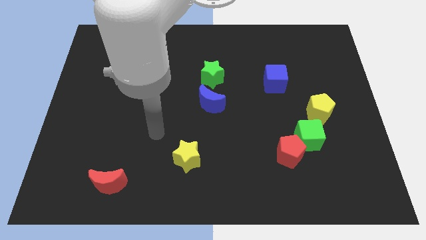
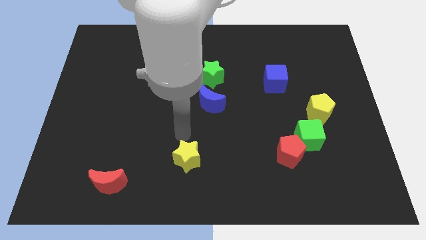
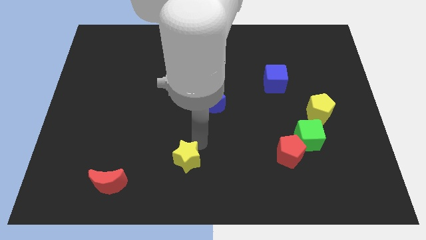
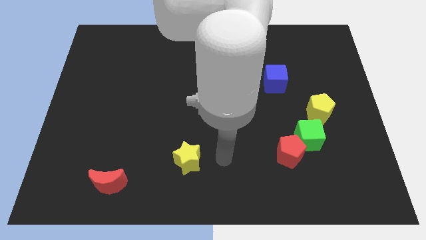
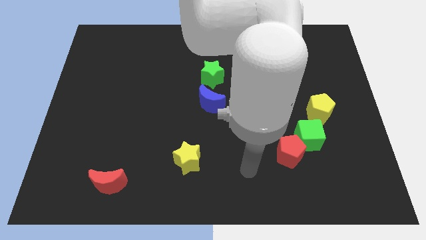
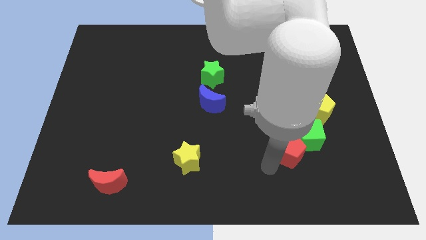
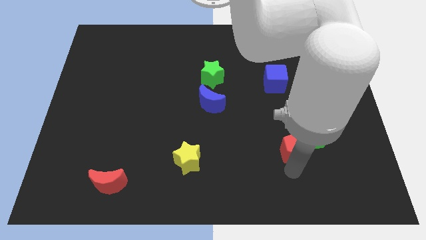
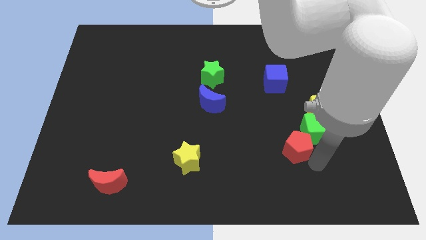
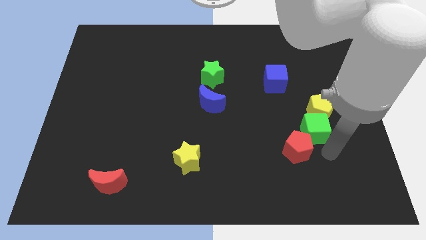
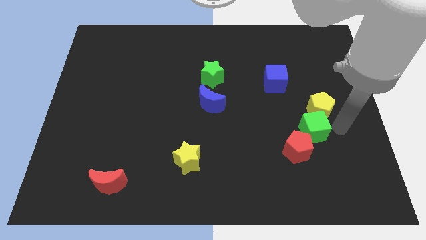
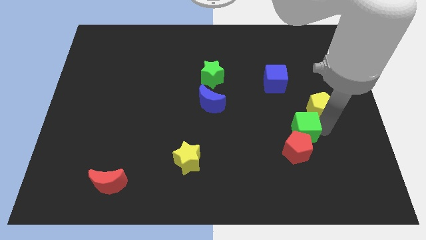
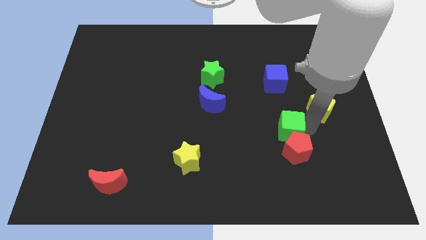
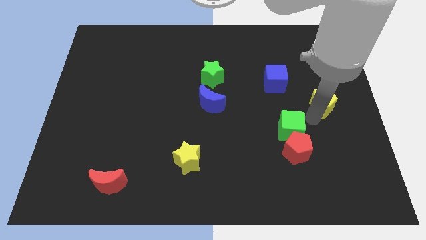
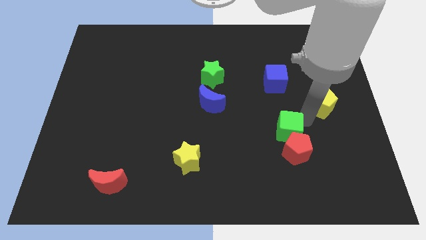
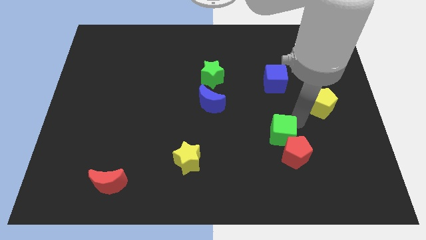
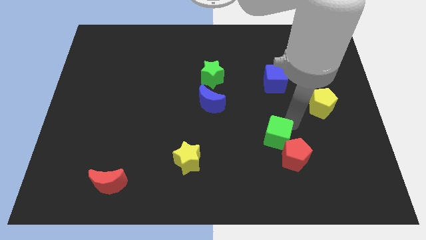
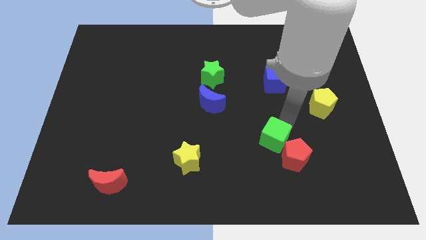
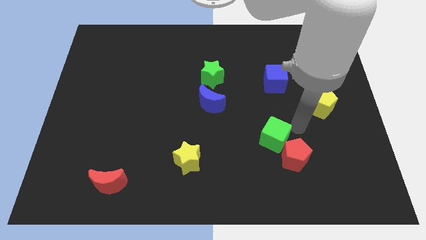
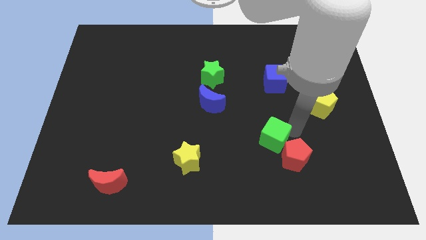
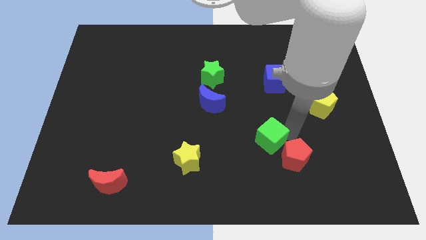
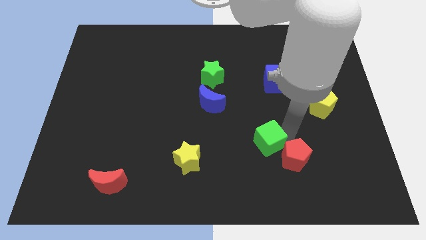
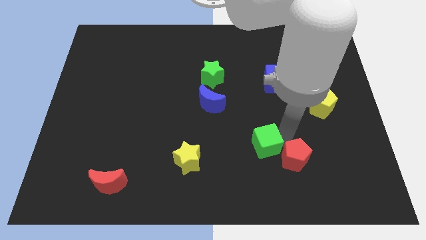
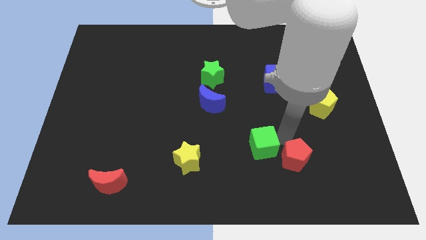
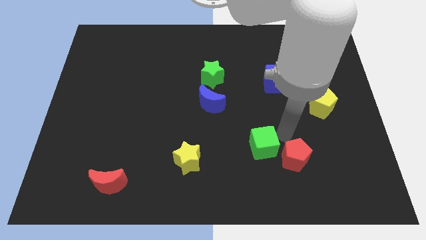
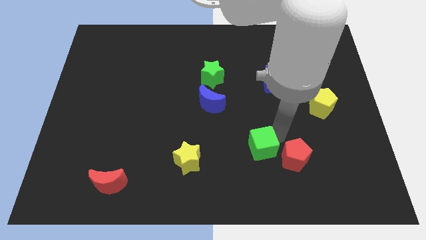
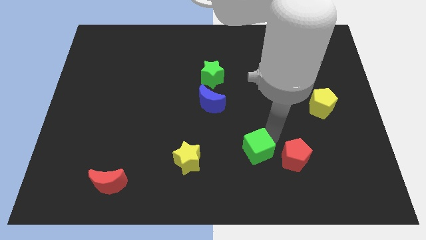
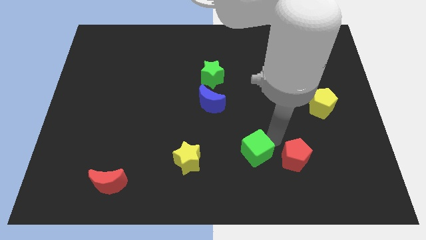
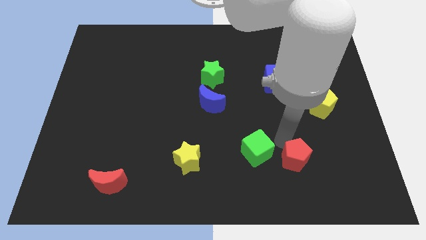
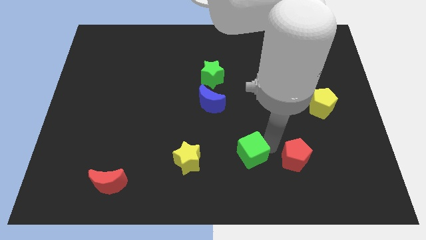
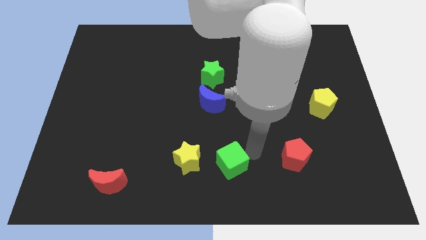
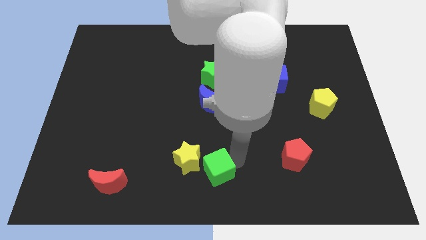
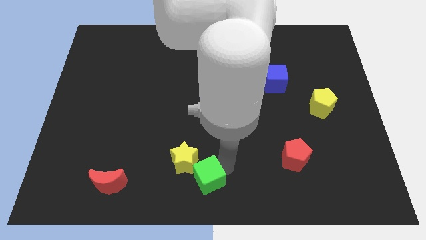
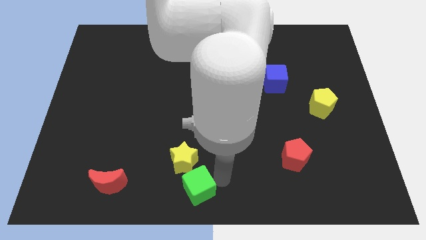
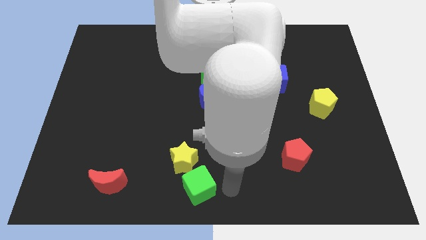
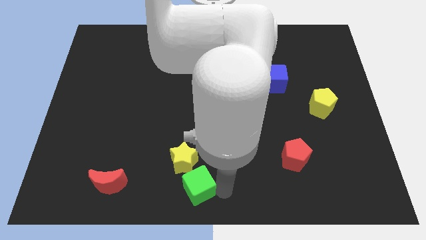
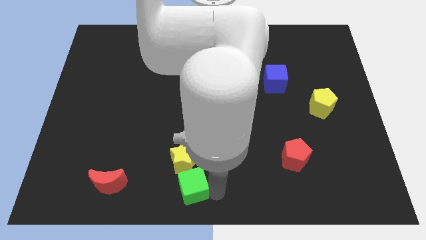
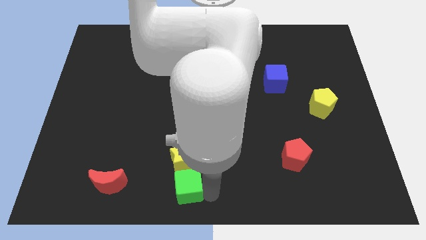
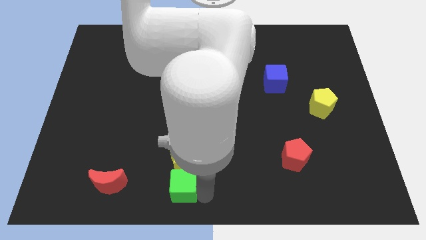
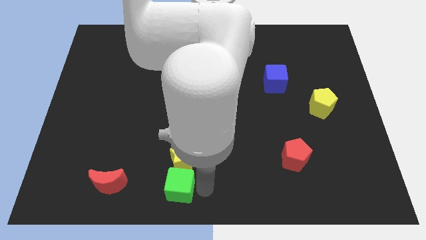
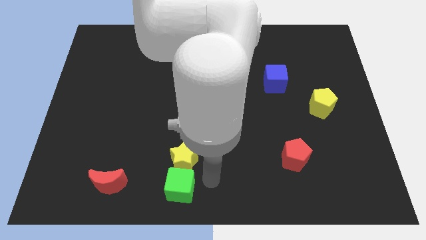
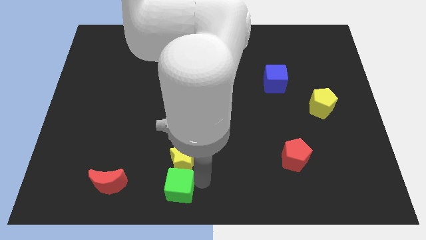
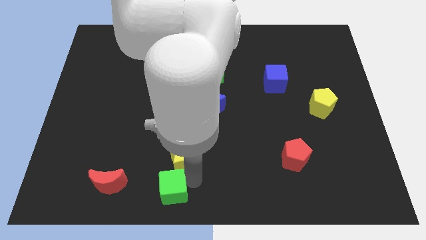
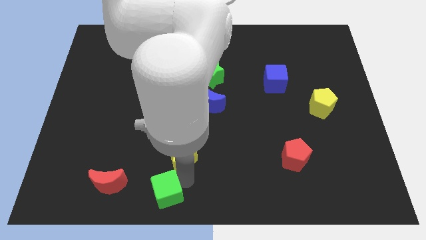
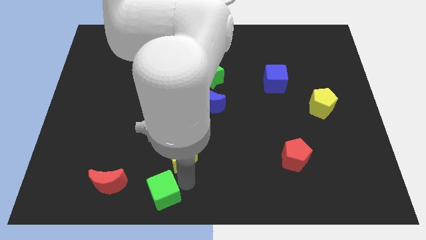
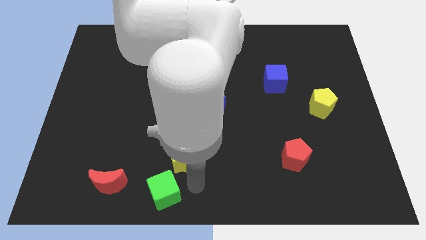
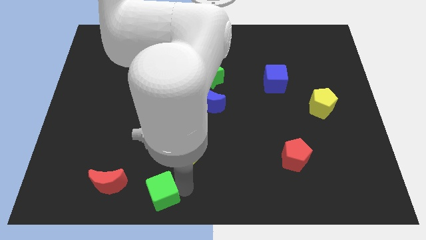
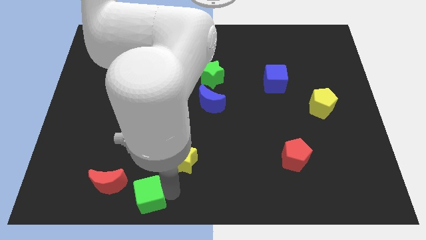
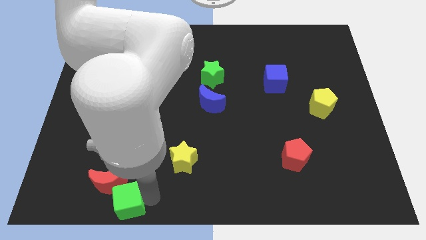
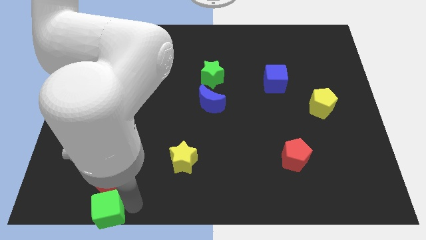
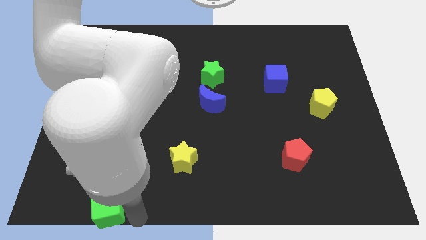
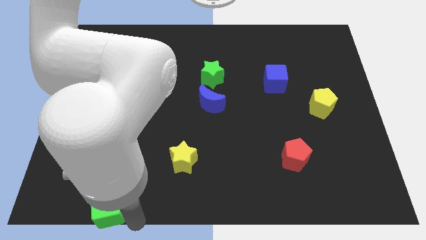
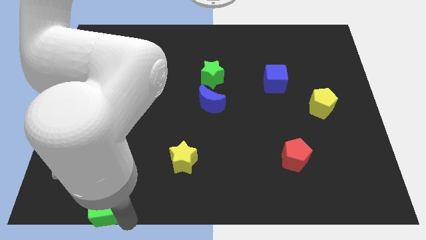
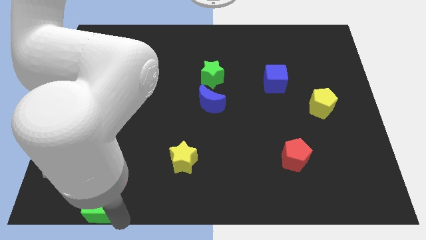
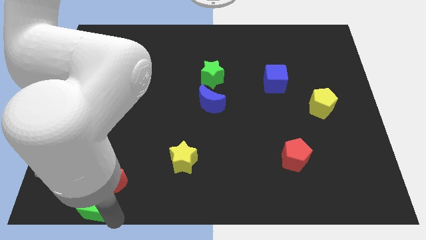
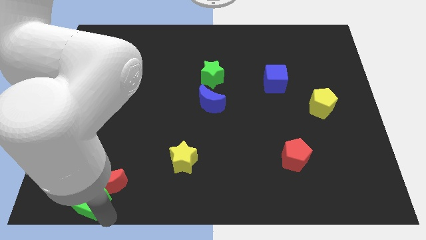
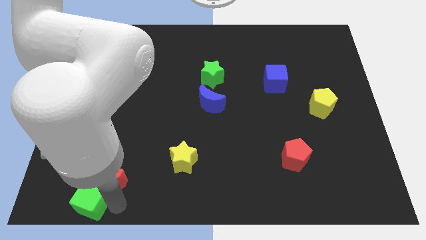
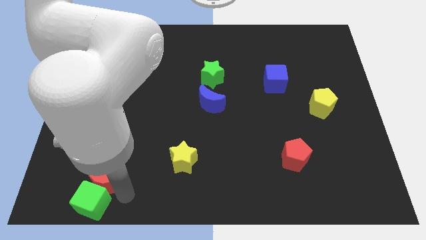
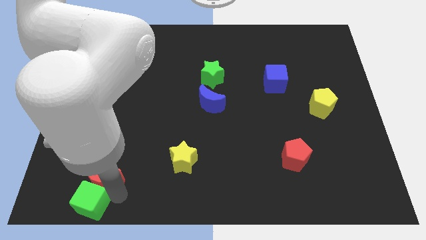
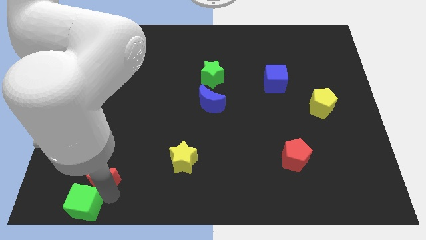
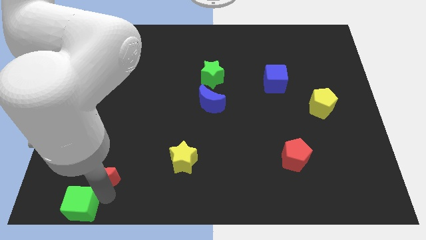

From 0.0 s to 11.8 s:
move the green cube to the lower left corner
